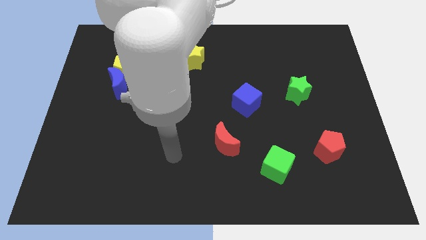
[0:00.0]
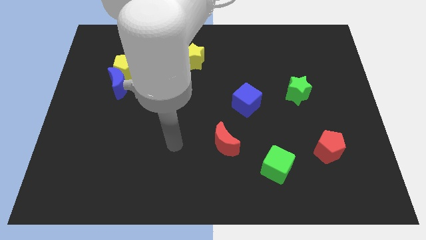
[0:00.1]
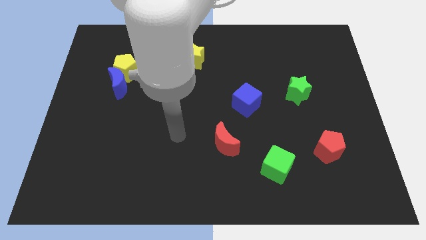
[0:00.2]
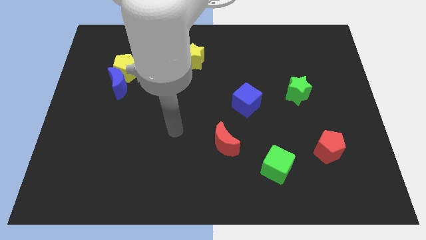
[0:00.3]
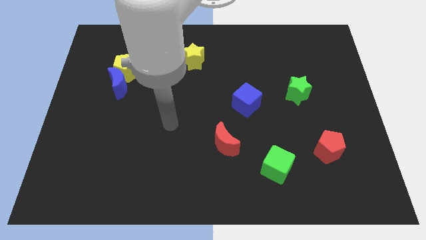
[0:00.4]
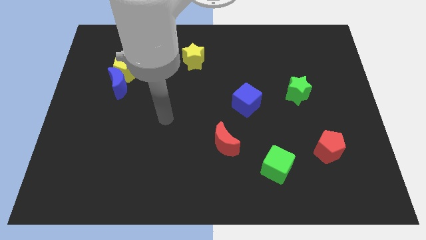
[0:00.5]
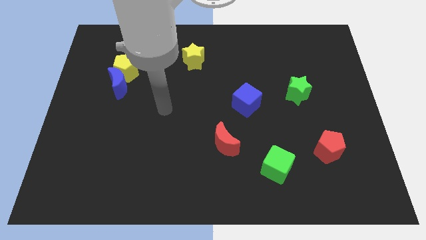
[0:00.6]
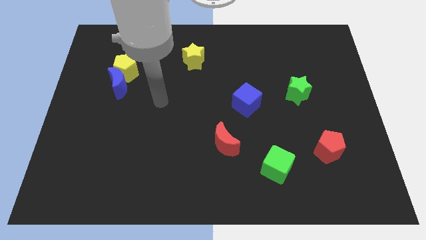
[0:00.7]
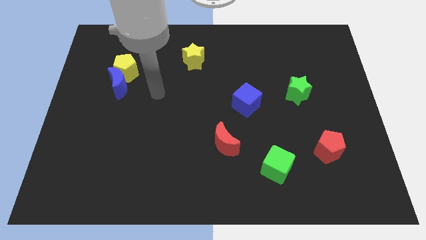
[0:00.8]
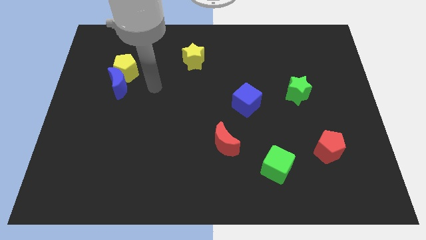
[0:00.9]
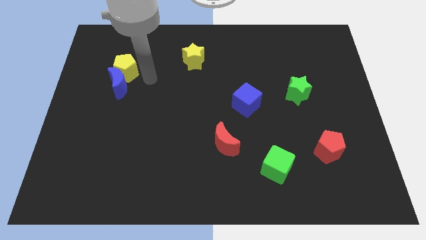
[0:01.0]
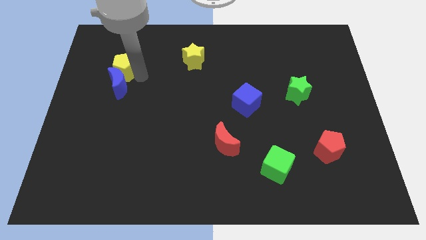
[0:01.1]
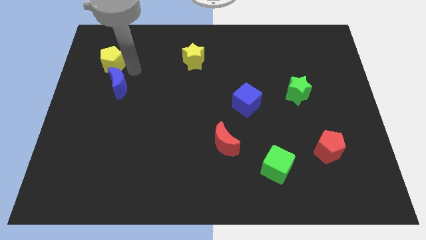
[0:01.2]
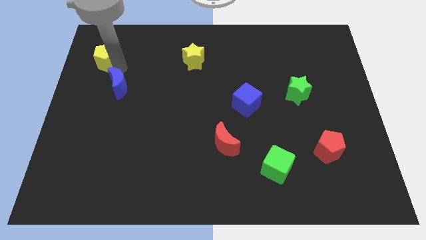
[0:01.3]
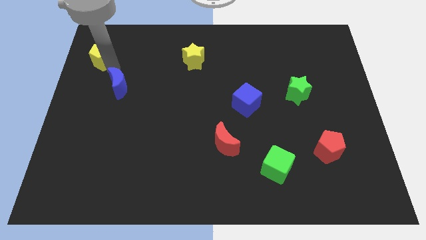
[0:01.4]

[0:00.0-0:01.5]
pull the blue moon apart from the yellow pentagon

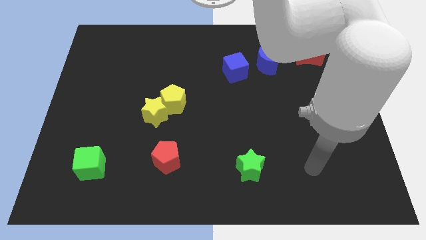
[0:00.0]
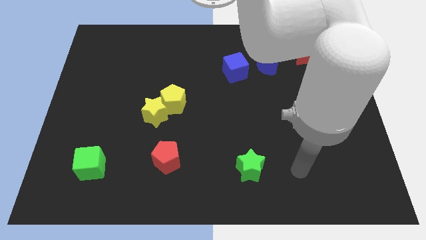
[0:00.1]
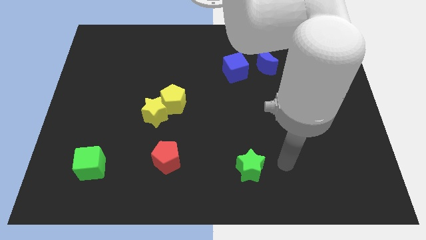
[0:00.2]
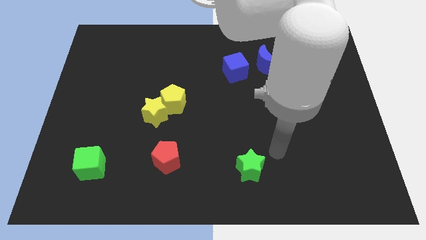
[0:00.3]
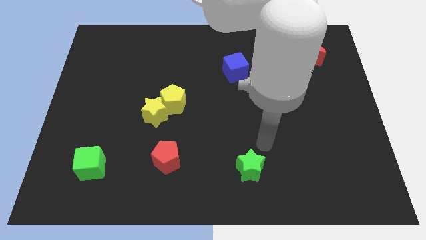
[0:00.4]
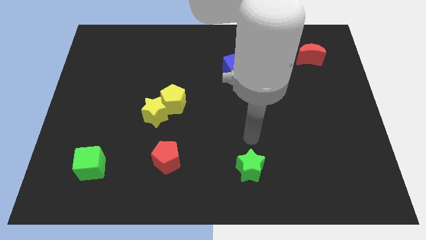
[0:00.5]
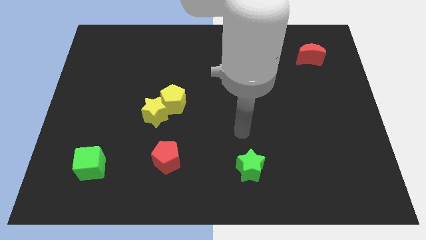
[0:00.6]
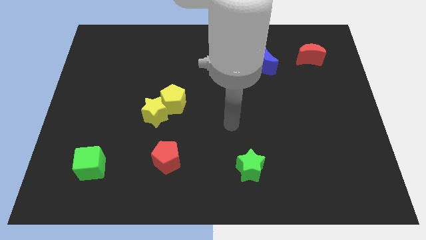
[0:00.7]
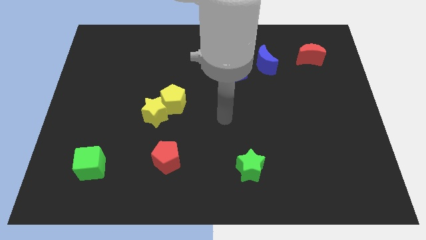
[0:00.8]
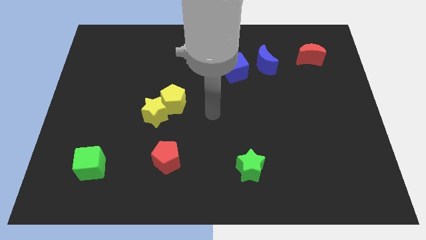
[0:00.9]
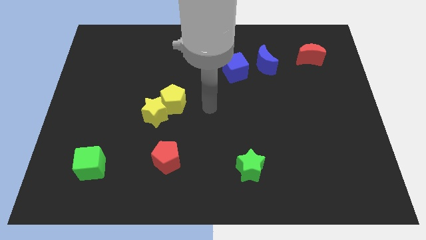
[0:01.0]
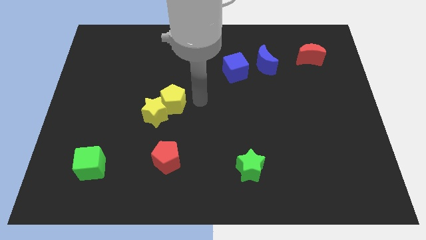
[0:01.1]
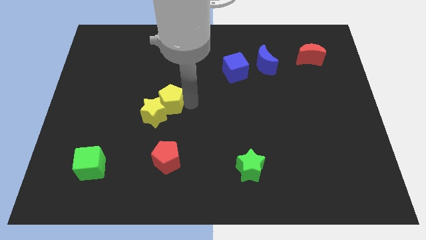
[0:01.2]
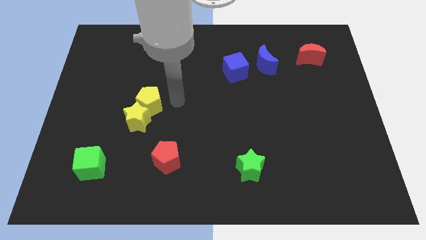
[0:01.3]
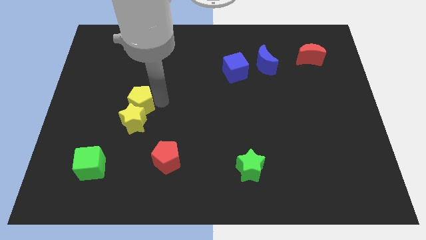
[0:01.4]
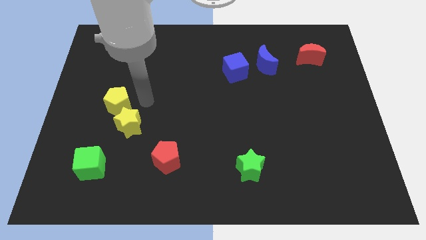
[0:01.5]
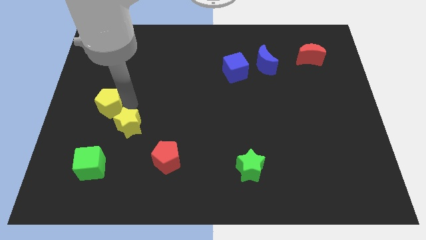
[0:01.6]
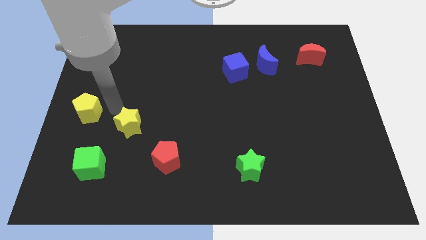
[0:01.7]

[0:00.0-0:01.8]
pull the yellow star apart from the yellow pentagon

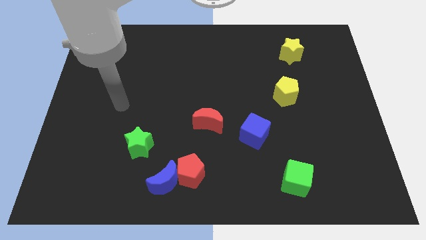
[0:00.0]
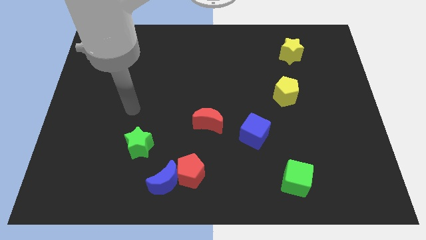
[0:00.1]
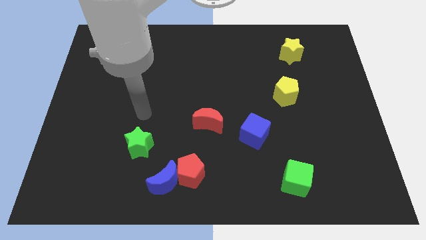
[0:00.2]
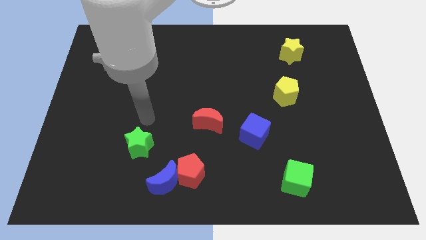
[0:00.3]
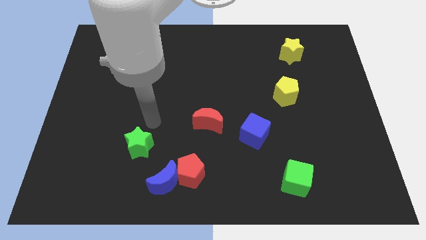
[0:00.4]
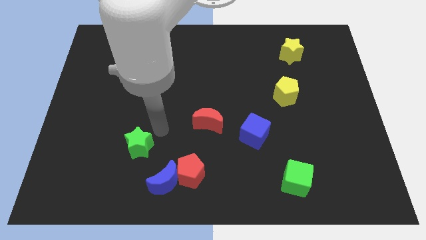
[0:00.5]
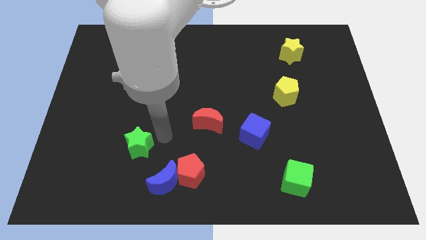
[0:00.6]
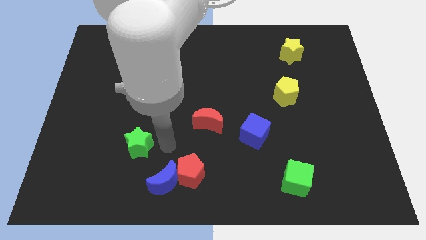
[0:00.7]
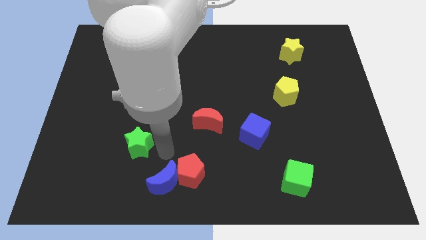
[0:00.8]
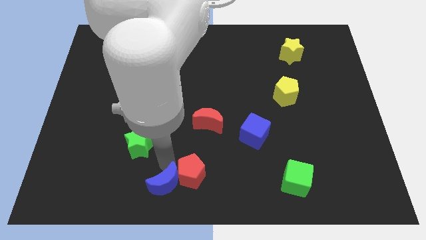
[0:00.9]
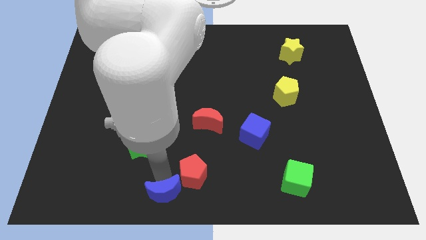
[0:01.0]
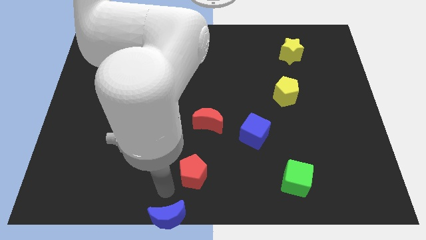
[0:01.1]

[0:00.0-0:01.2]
move the red pentagon away from the blue moon

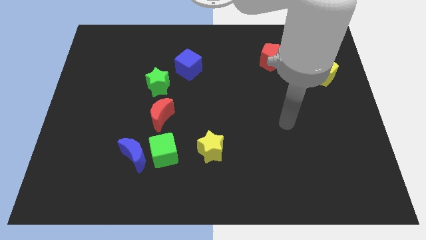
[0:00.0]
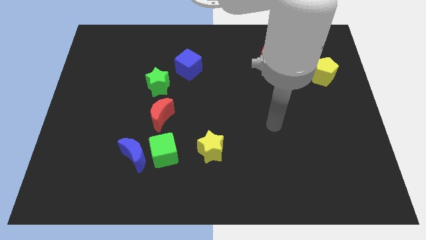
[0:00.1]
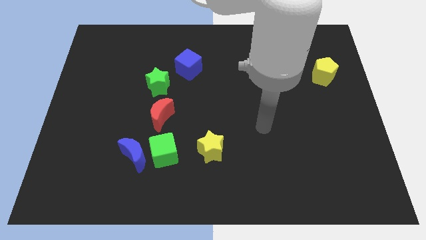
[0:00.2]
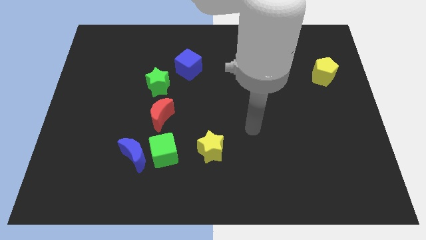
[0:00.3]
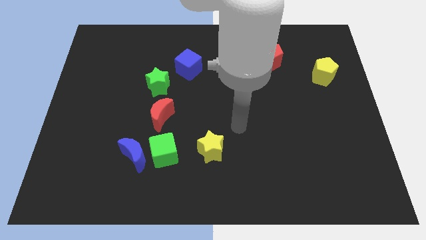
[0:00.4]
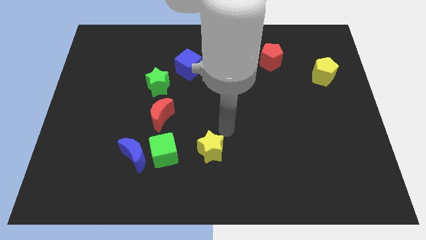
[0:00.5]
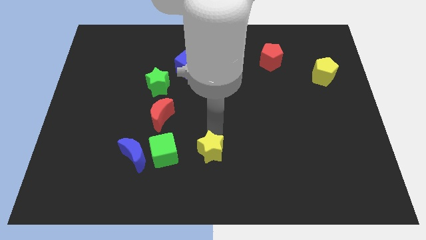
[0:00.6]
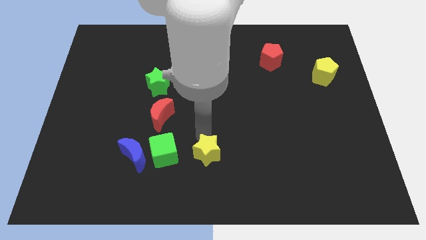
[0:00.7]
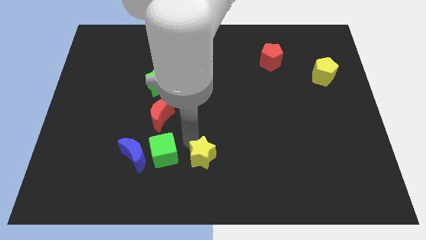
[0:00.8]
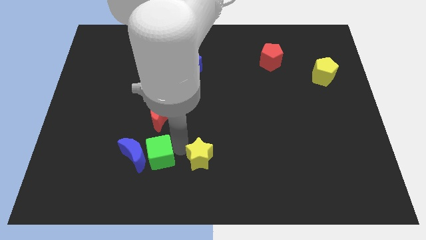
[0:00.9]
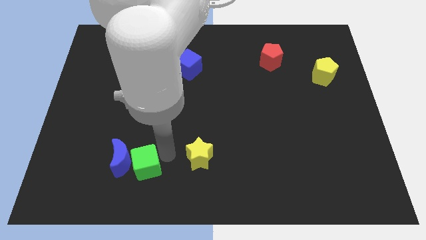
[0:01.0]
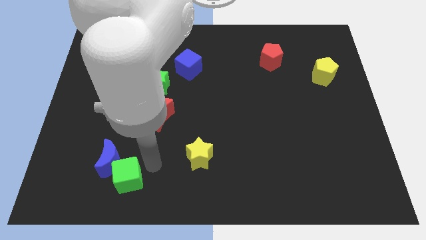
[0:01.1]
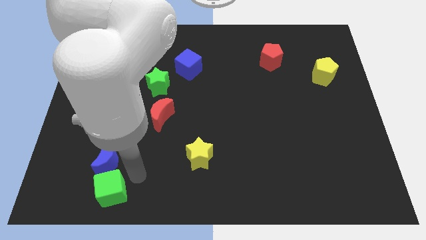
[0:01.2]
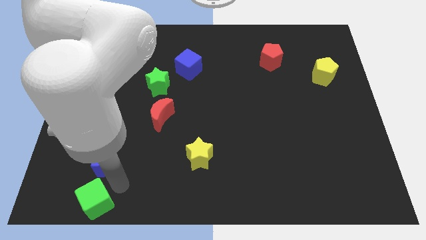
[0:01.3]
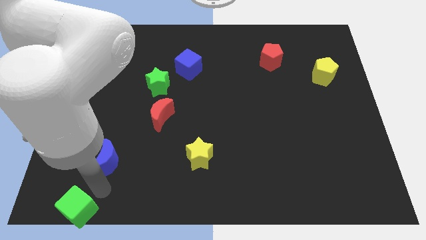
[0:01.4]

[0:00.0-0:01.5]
separate the blue moon from the green cube

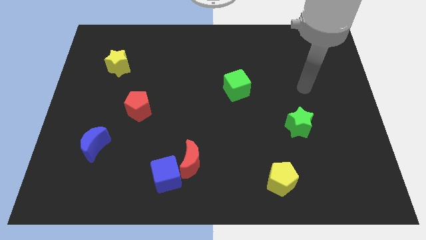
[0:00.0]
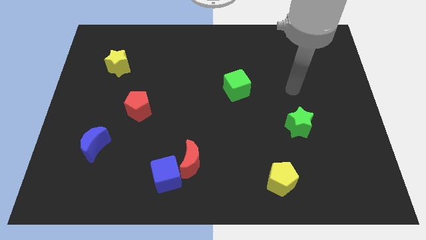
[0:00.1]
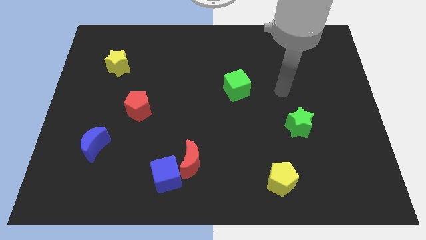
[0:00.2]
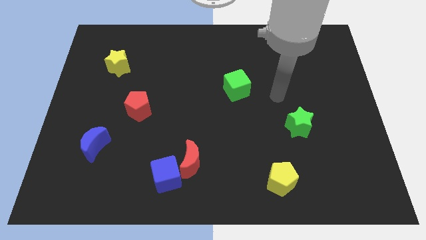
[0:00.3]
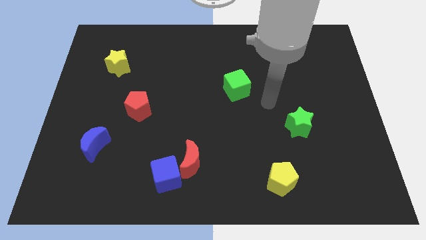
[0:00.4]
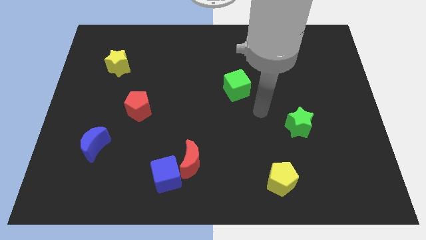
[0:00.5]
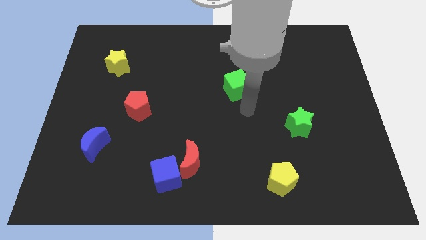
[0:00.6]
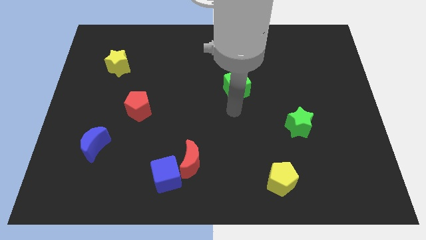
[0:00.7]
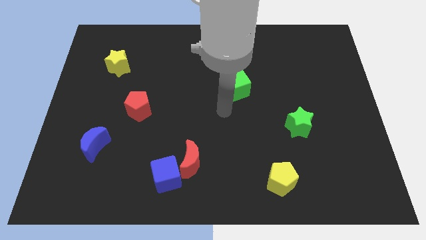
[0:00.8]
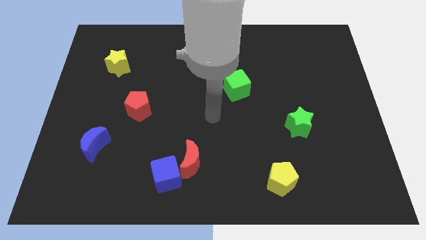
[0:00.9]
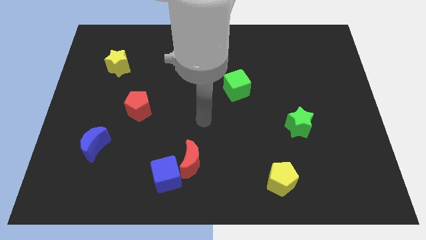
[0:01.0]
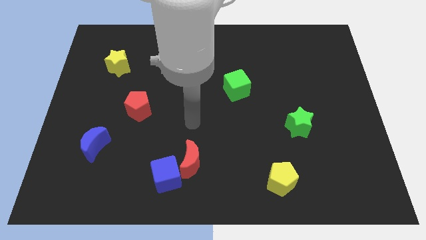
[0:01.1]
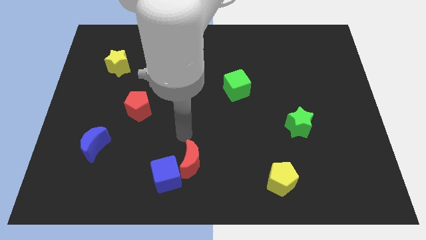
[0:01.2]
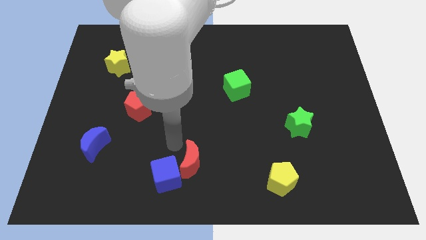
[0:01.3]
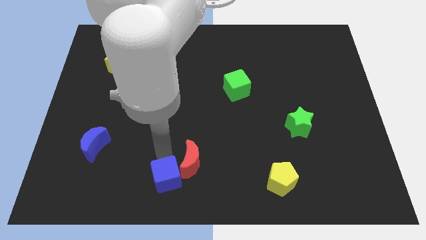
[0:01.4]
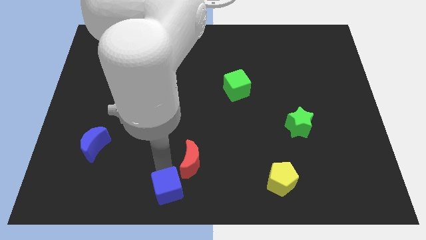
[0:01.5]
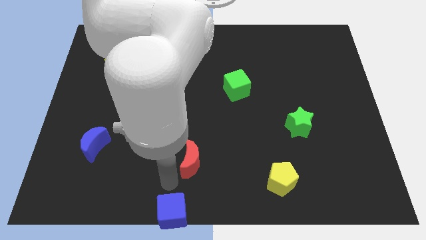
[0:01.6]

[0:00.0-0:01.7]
separate the red moon from the blue cube

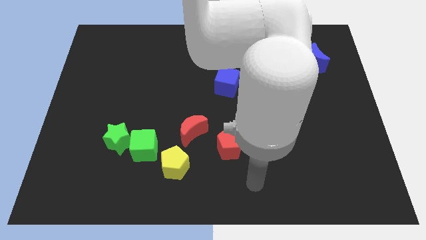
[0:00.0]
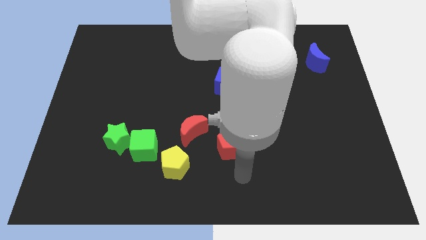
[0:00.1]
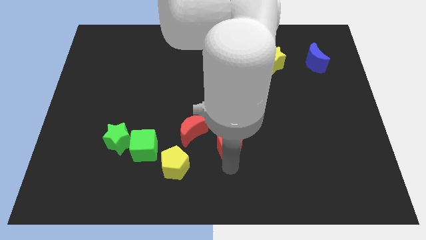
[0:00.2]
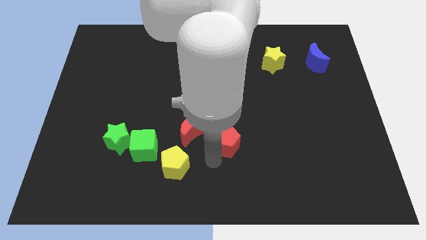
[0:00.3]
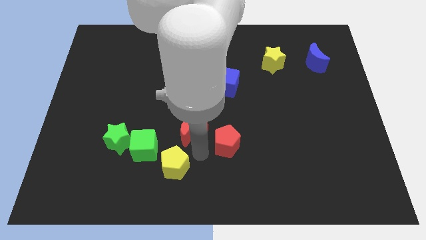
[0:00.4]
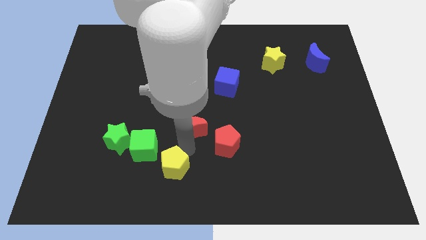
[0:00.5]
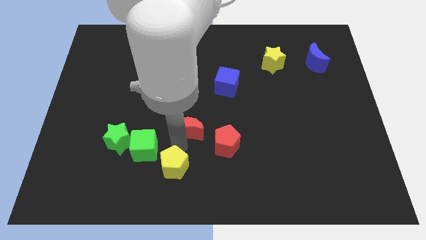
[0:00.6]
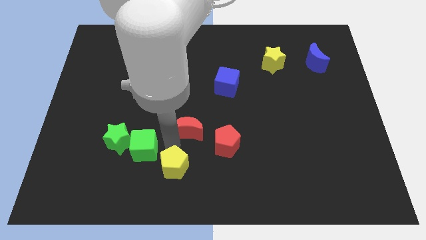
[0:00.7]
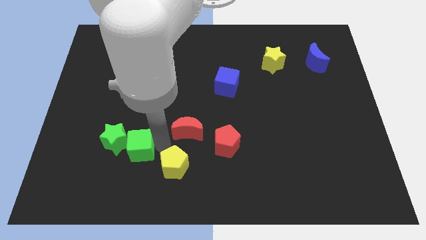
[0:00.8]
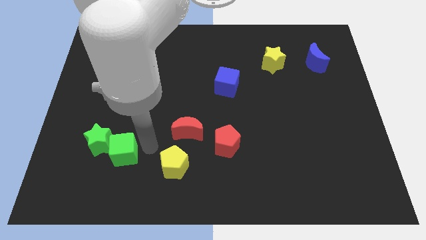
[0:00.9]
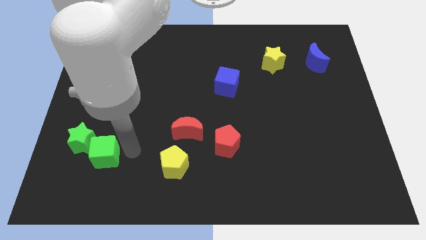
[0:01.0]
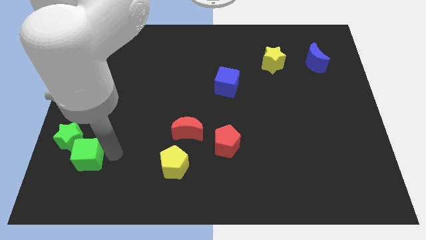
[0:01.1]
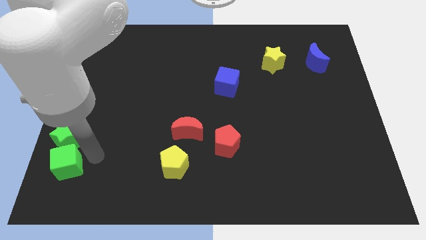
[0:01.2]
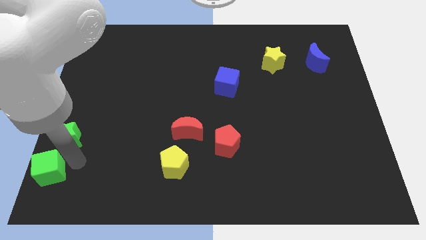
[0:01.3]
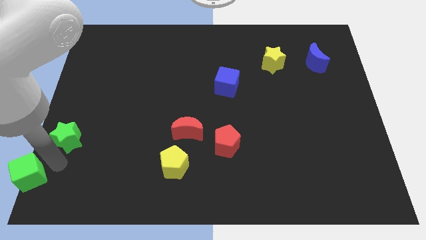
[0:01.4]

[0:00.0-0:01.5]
pull the green star apart from the green cube
